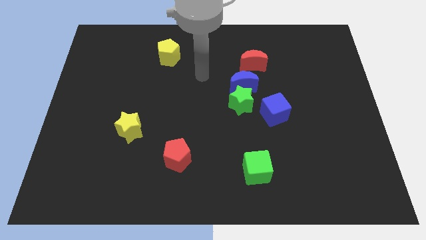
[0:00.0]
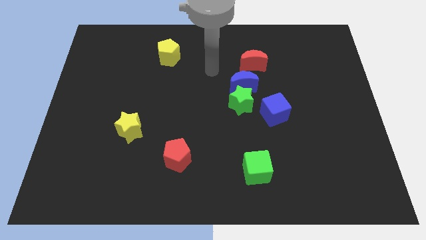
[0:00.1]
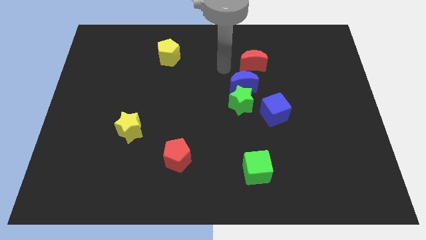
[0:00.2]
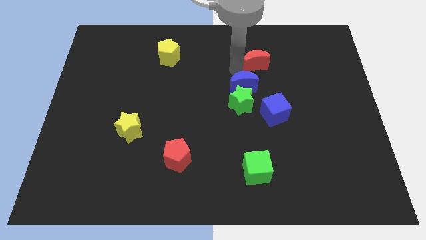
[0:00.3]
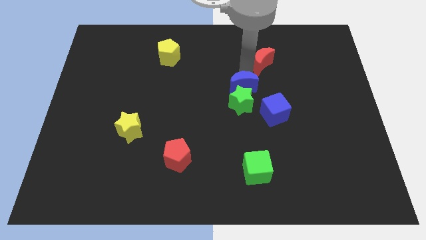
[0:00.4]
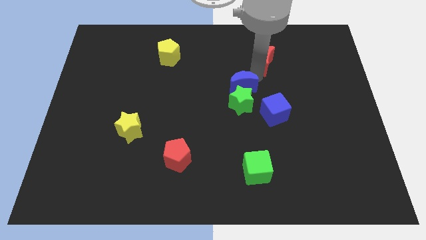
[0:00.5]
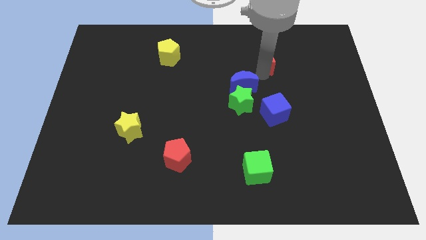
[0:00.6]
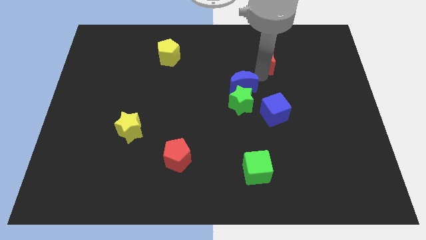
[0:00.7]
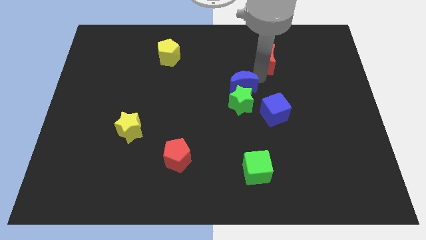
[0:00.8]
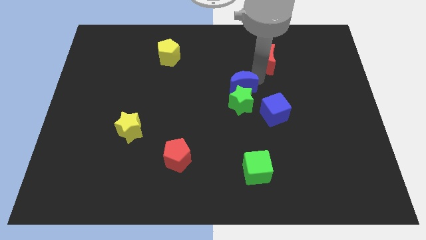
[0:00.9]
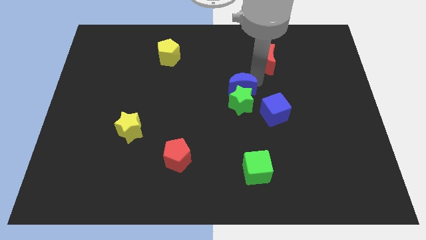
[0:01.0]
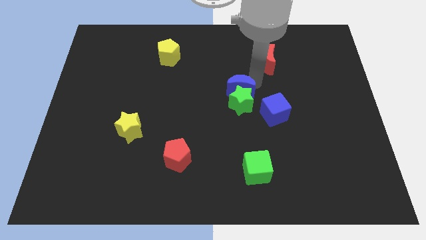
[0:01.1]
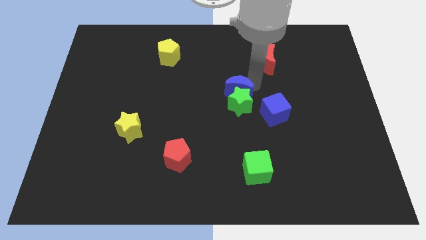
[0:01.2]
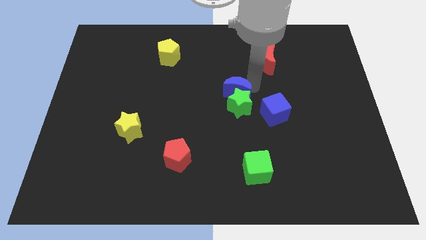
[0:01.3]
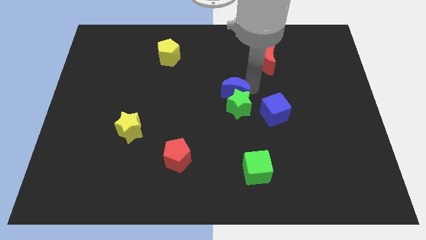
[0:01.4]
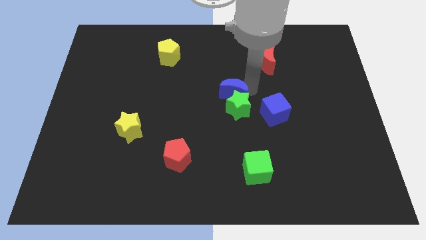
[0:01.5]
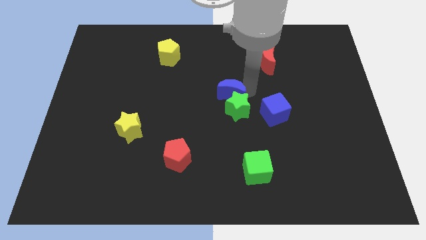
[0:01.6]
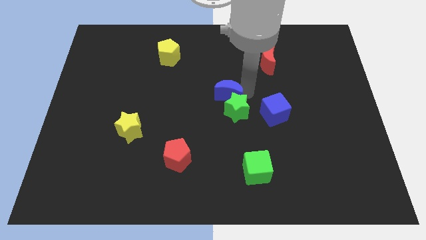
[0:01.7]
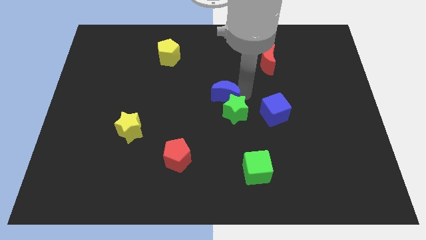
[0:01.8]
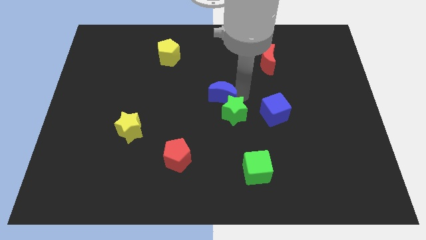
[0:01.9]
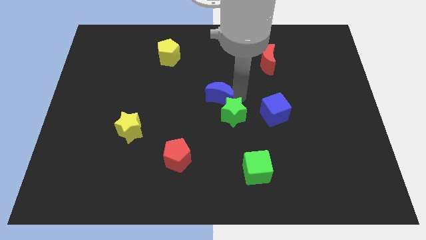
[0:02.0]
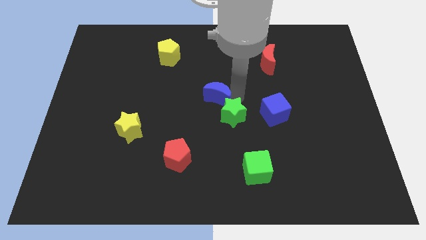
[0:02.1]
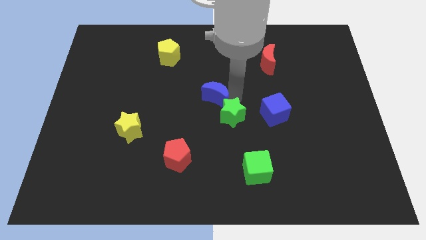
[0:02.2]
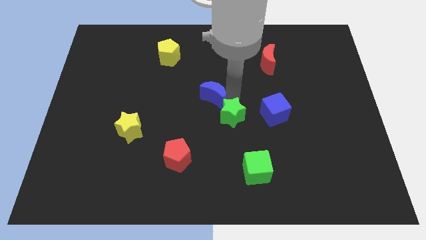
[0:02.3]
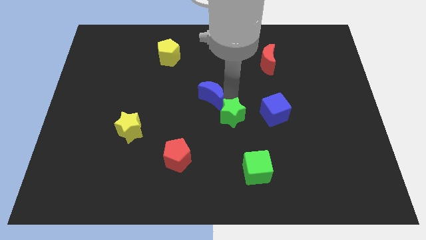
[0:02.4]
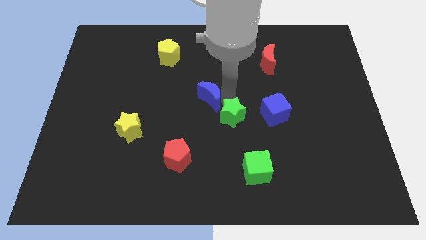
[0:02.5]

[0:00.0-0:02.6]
separate the blue moon from the green star and red moon

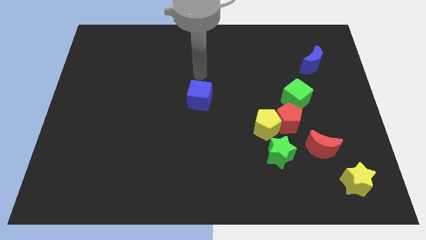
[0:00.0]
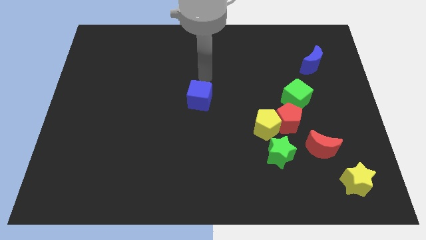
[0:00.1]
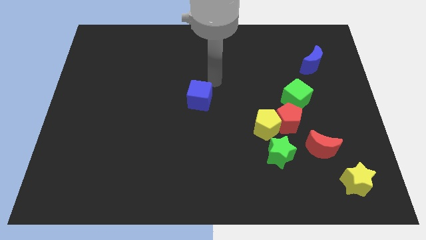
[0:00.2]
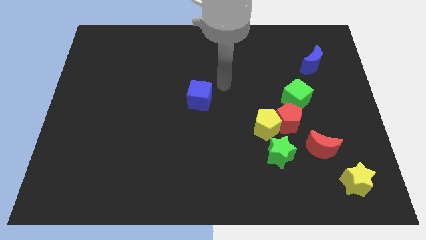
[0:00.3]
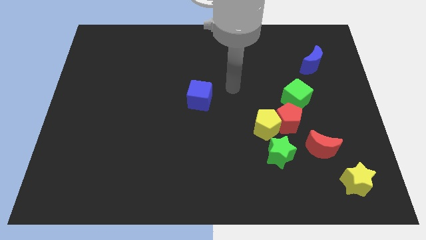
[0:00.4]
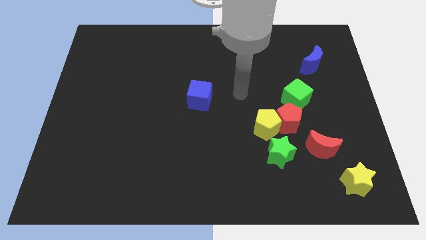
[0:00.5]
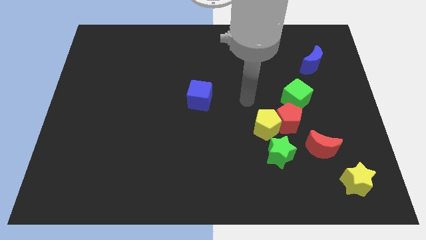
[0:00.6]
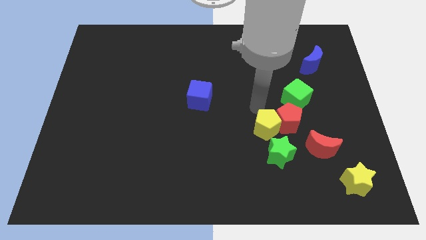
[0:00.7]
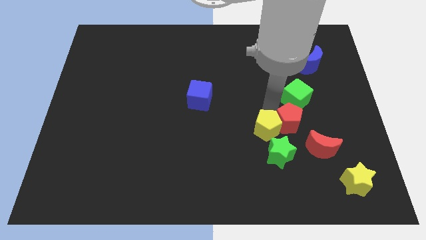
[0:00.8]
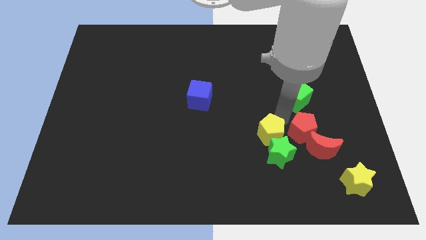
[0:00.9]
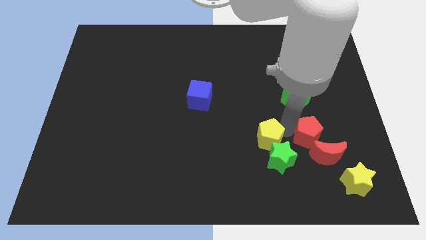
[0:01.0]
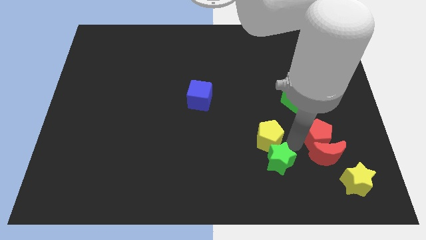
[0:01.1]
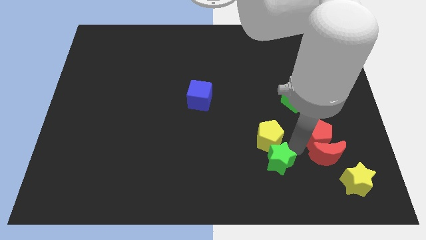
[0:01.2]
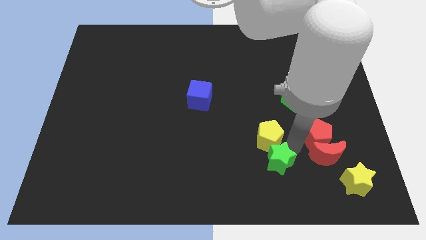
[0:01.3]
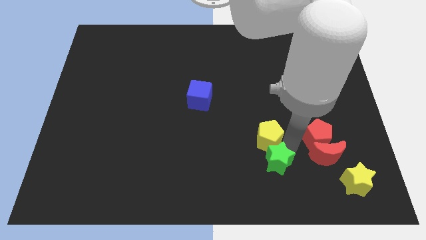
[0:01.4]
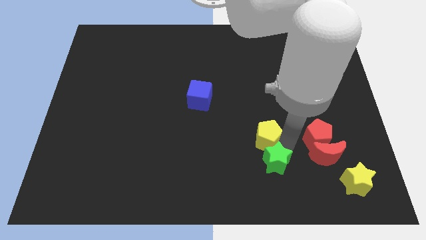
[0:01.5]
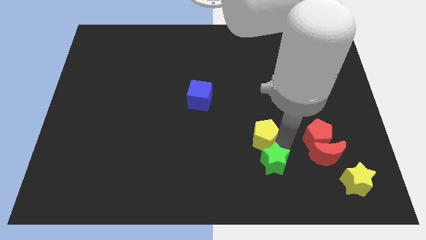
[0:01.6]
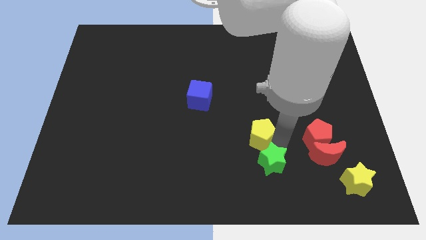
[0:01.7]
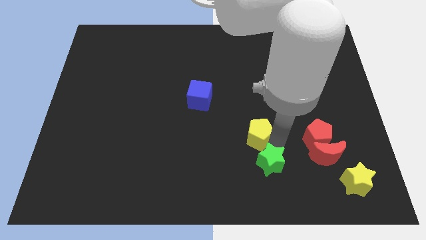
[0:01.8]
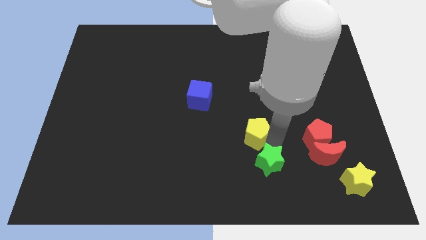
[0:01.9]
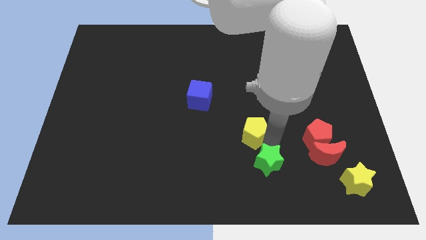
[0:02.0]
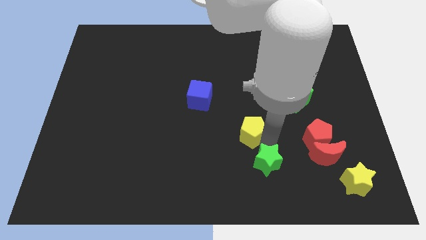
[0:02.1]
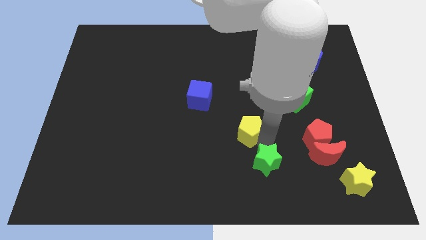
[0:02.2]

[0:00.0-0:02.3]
move the yellow pentagon away from the red pentagon and green star

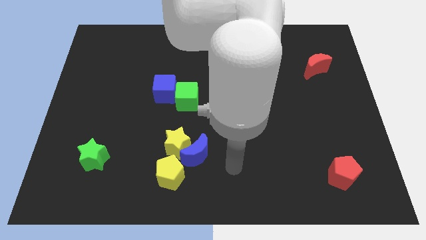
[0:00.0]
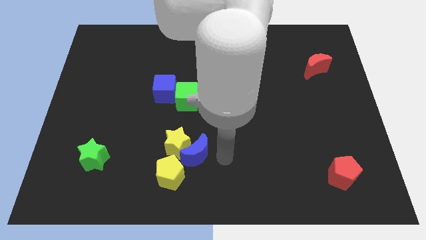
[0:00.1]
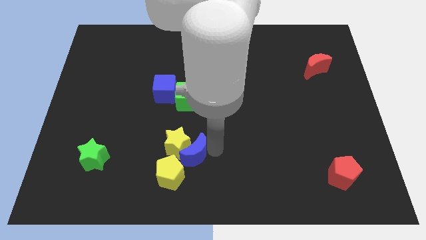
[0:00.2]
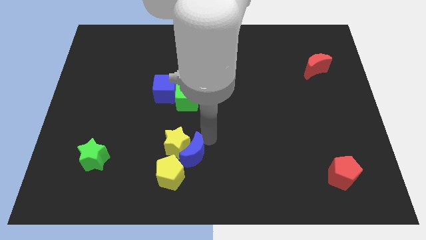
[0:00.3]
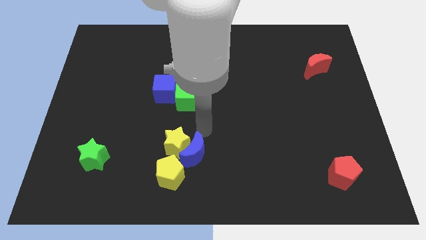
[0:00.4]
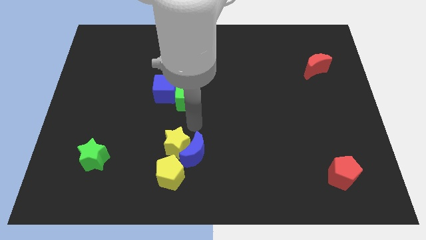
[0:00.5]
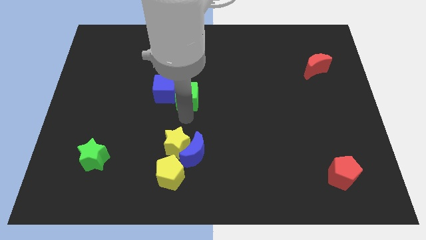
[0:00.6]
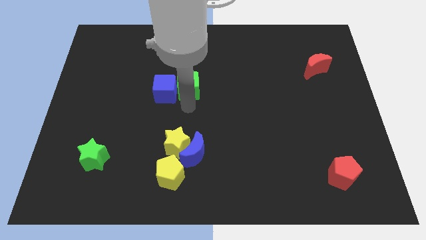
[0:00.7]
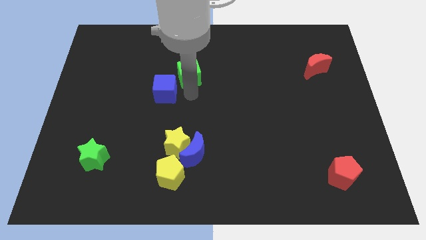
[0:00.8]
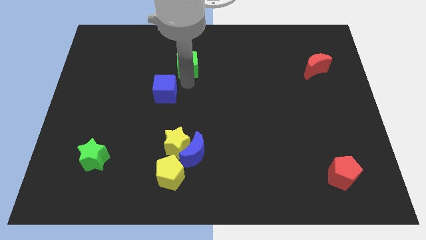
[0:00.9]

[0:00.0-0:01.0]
move the blue cube away from the green cube

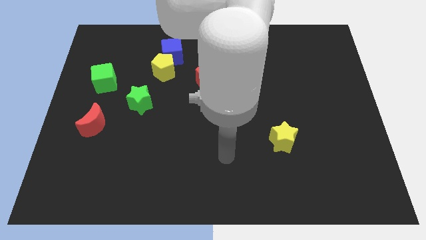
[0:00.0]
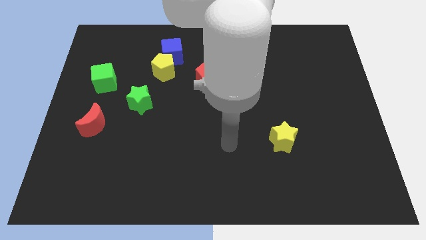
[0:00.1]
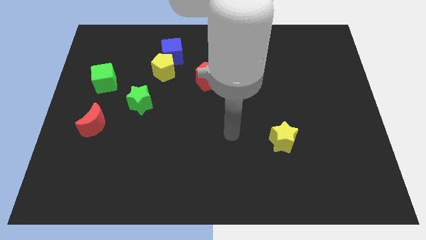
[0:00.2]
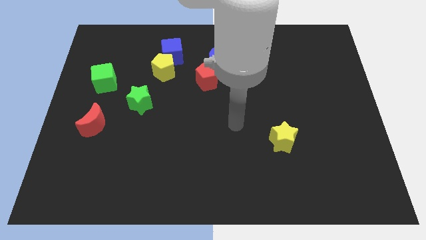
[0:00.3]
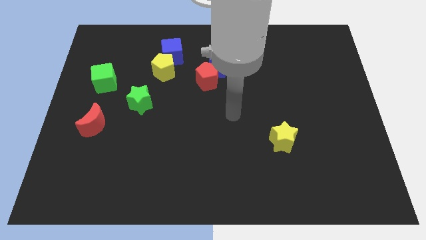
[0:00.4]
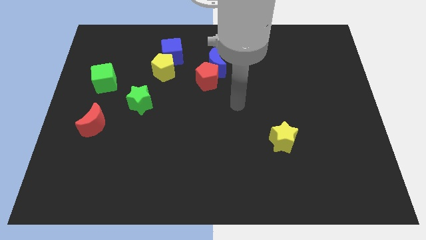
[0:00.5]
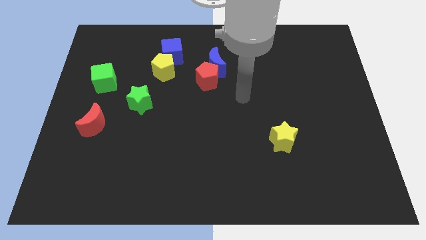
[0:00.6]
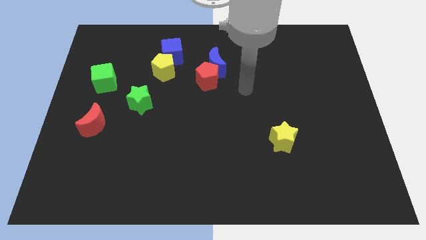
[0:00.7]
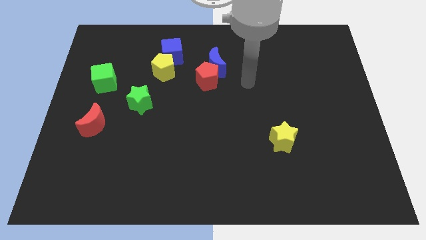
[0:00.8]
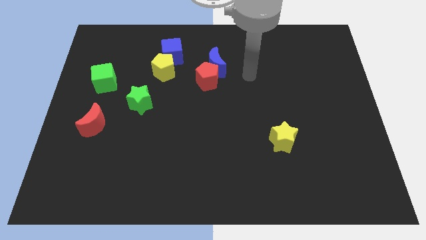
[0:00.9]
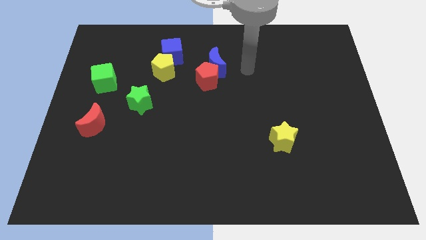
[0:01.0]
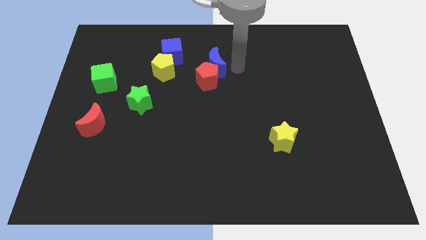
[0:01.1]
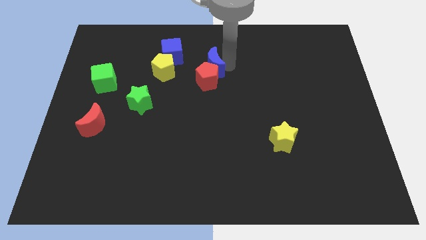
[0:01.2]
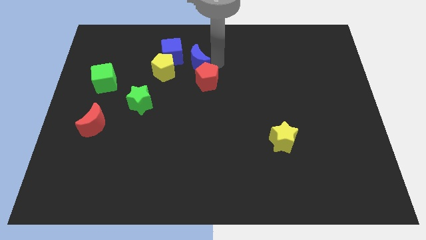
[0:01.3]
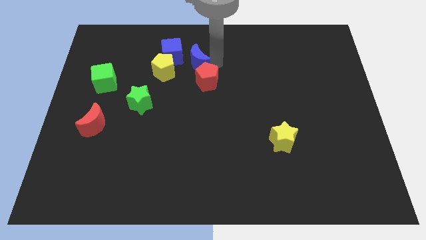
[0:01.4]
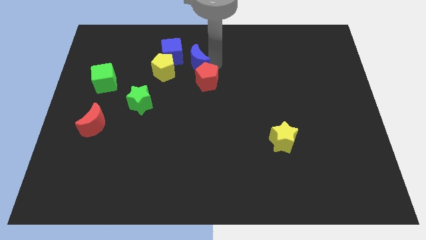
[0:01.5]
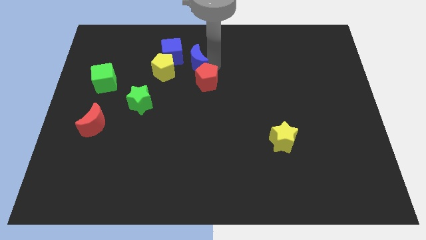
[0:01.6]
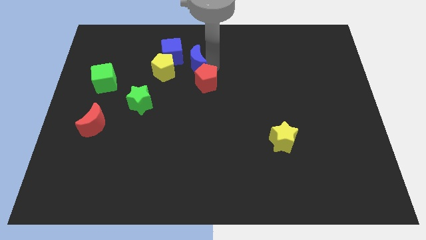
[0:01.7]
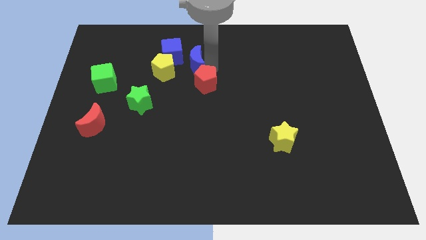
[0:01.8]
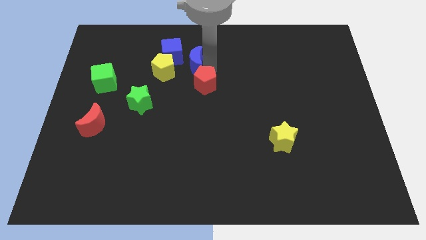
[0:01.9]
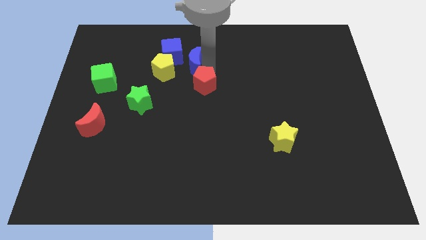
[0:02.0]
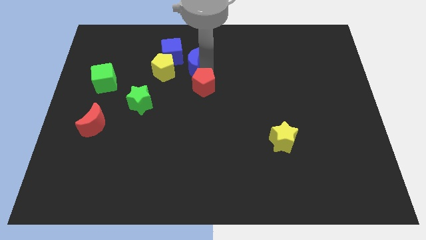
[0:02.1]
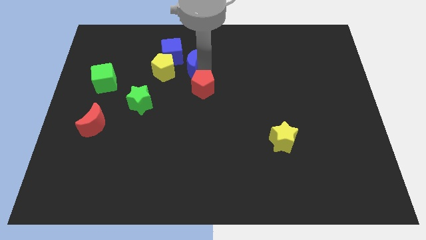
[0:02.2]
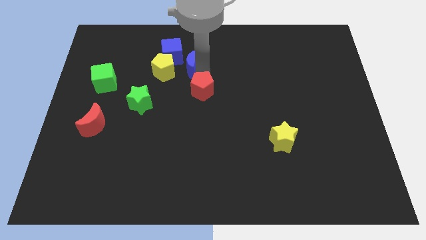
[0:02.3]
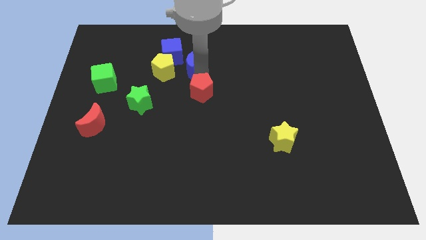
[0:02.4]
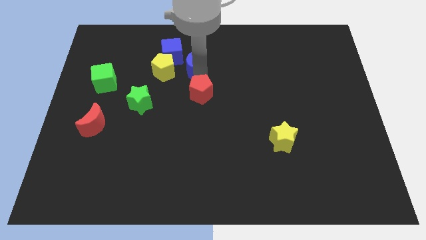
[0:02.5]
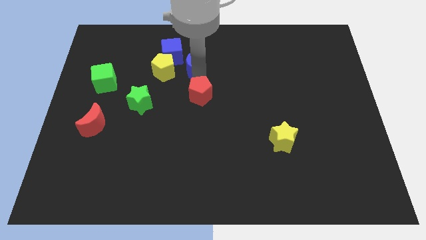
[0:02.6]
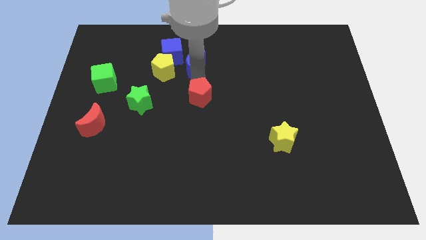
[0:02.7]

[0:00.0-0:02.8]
move the red pentagon away from the blue moon

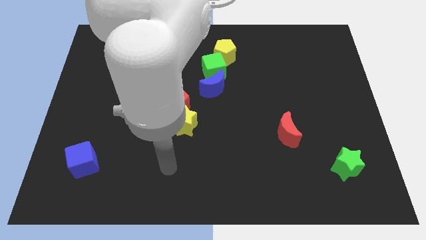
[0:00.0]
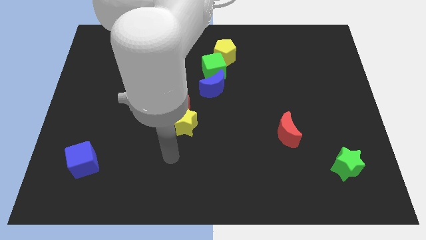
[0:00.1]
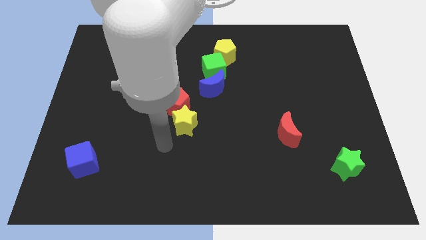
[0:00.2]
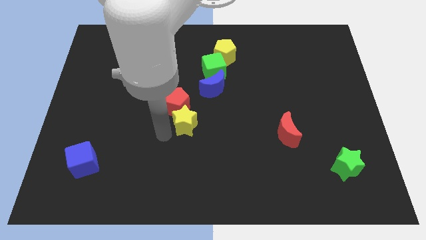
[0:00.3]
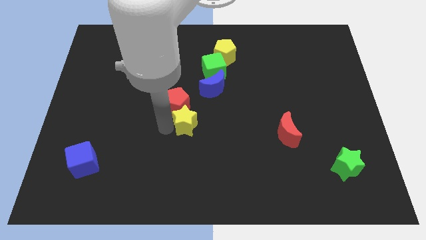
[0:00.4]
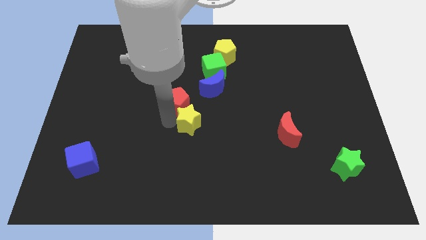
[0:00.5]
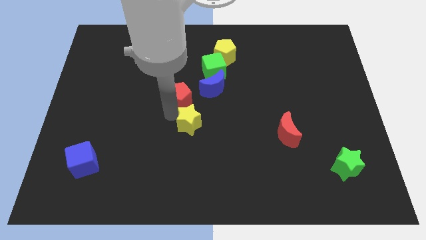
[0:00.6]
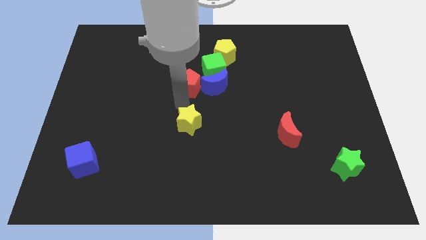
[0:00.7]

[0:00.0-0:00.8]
move the yellow star away from the red pentagon
